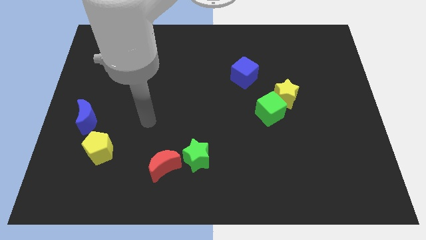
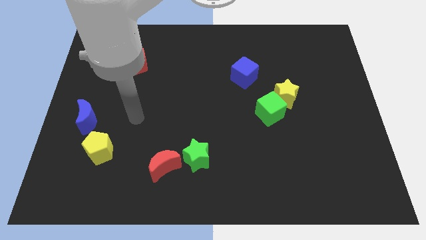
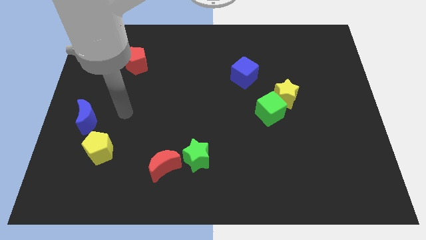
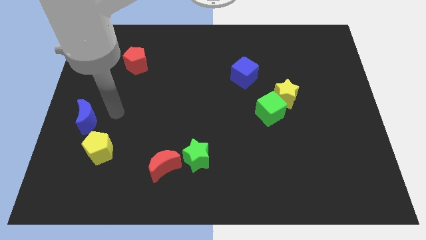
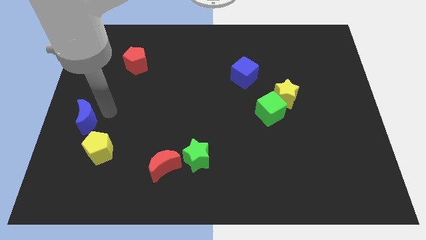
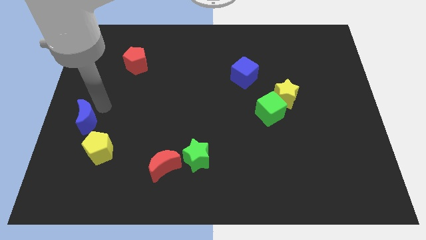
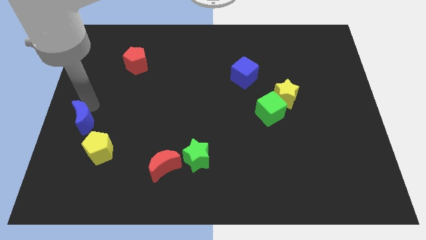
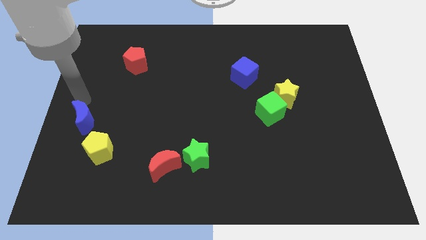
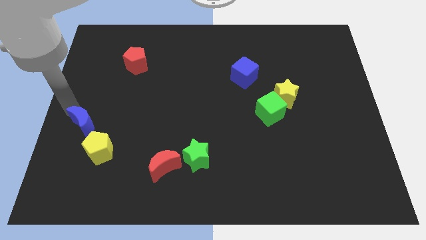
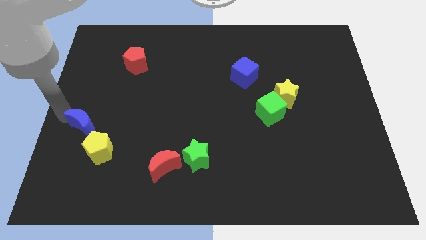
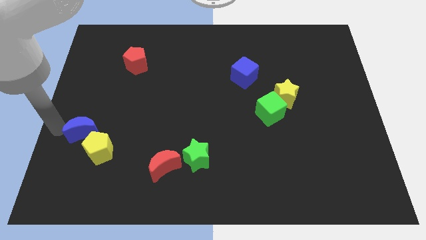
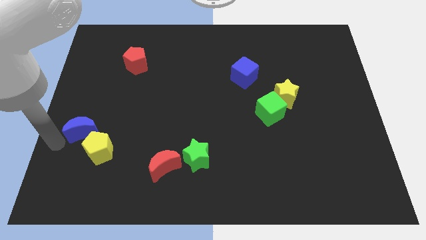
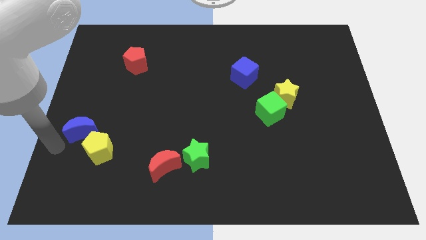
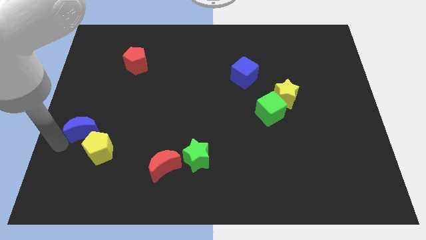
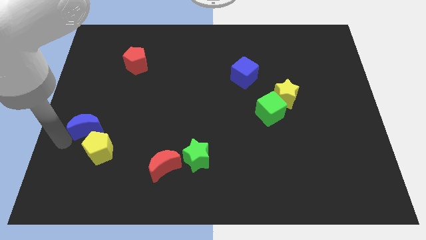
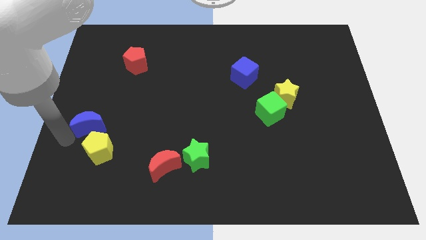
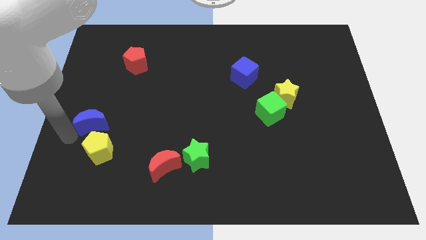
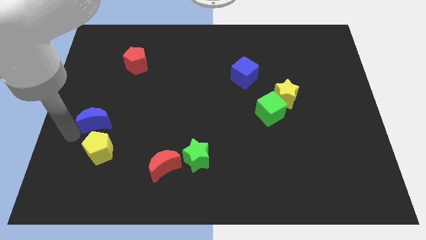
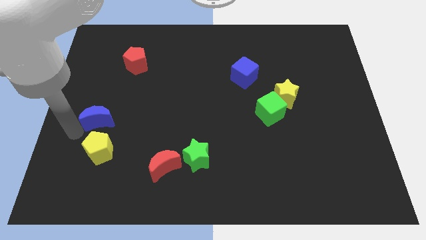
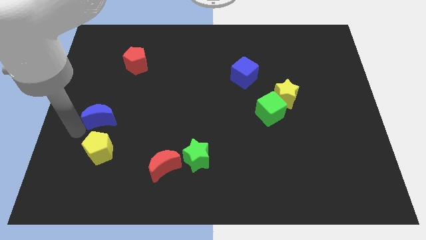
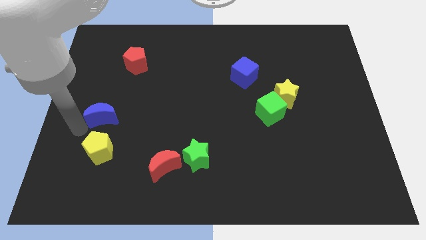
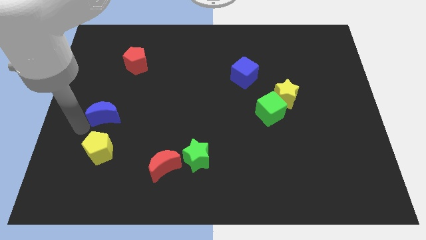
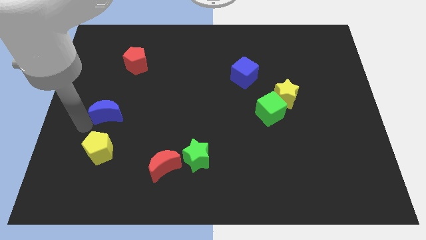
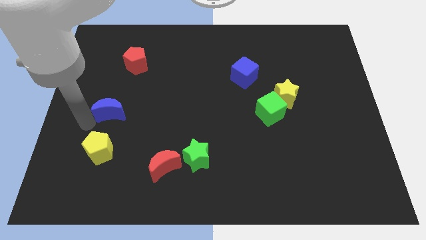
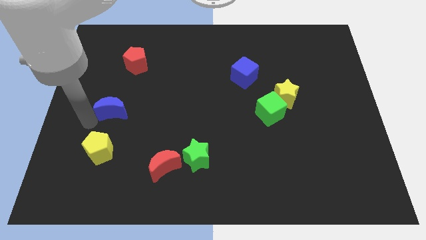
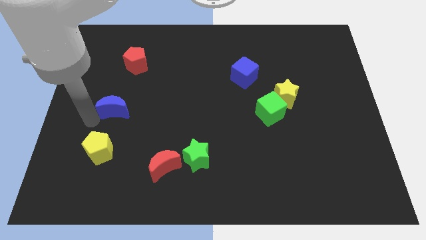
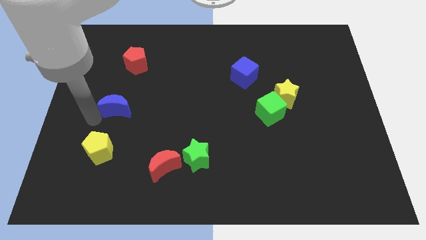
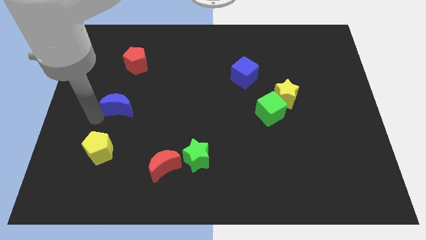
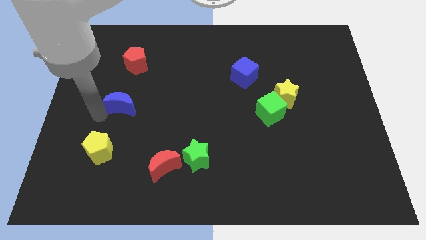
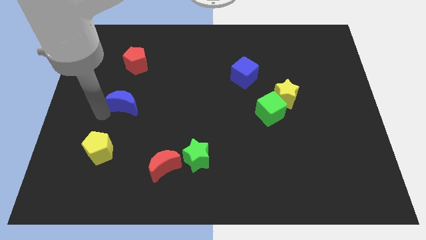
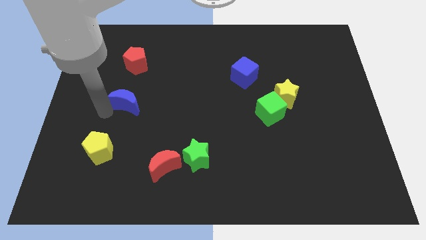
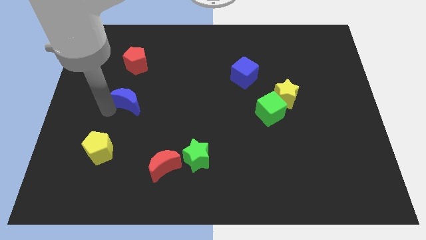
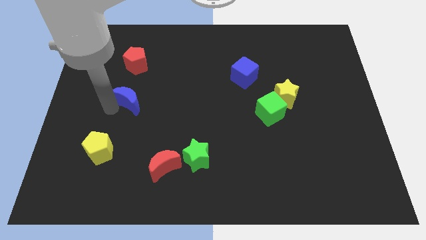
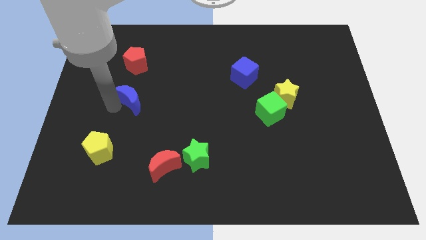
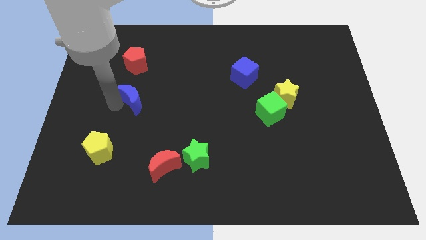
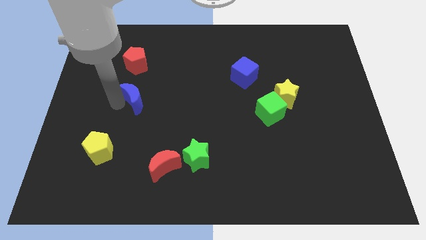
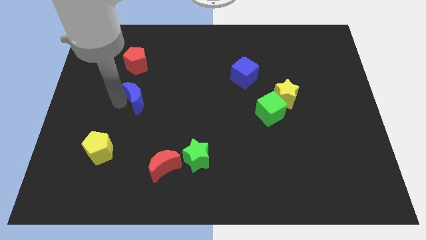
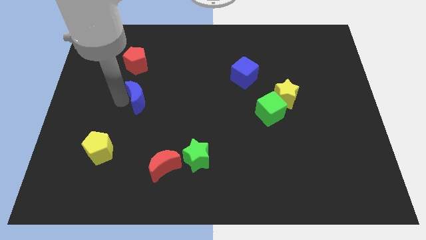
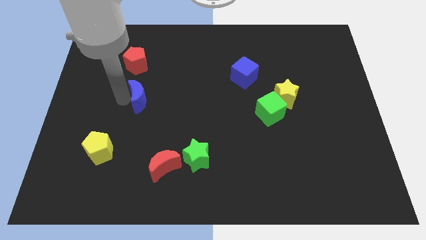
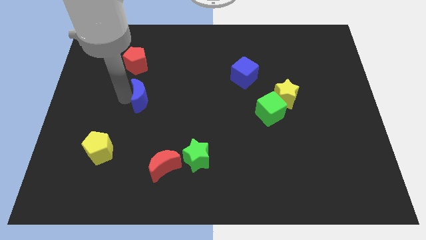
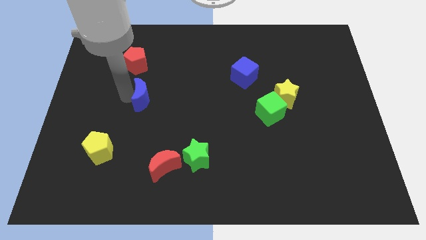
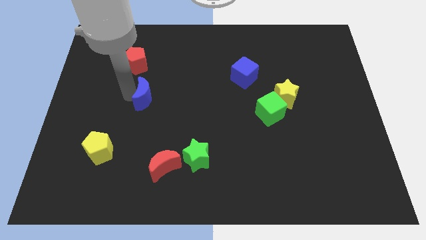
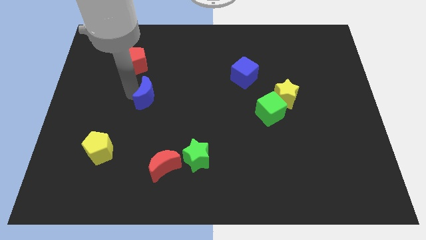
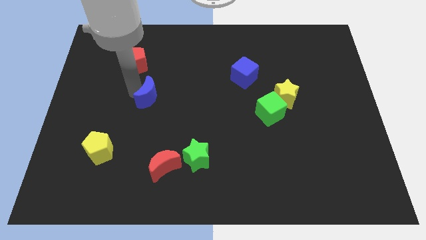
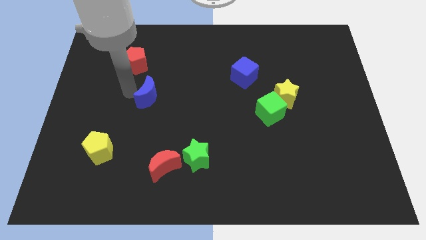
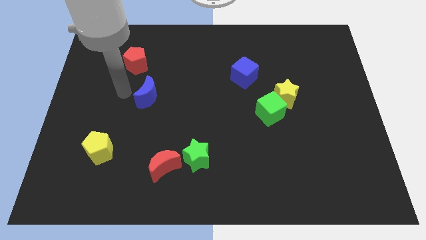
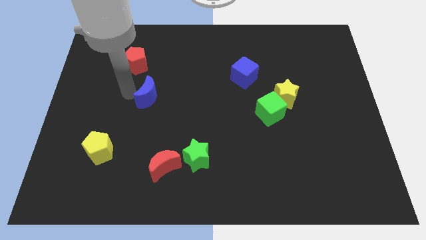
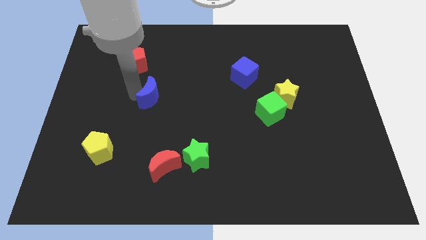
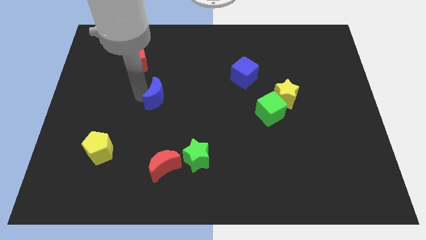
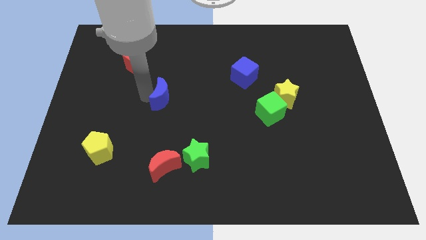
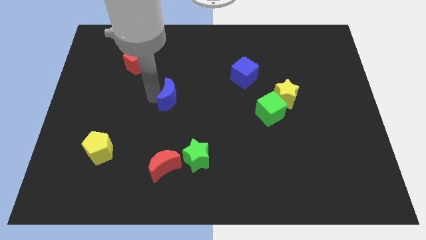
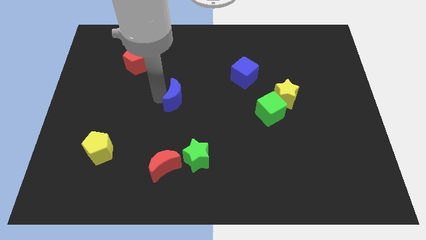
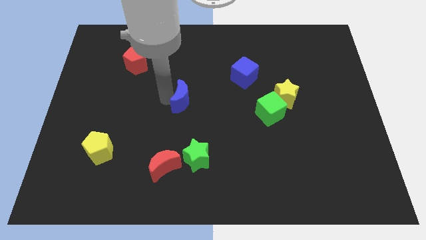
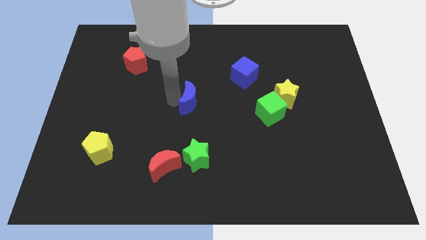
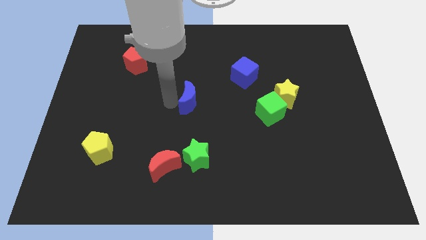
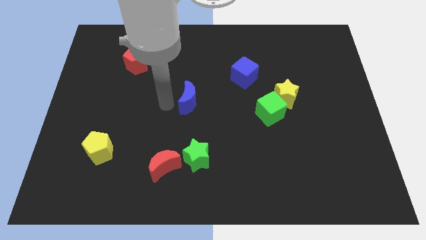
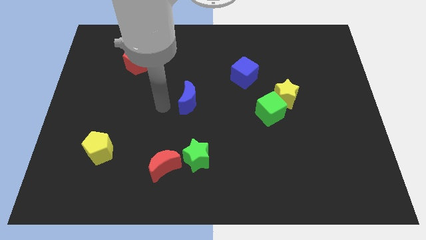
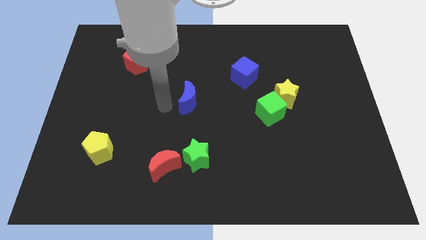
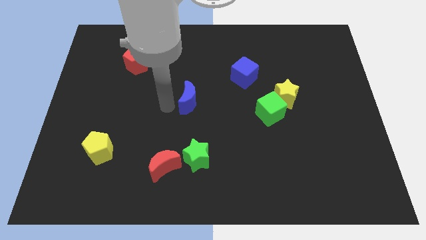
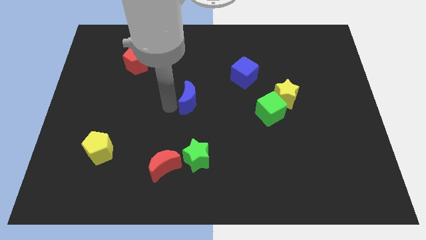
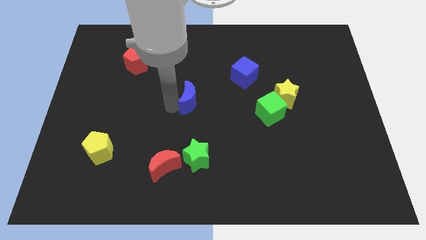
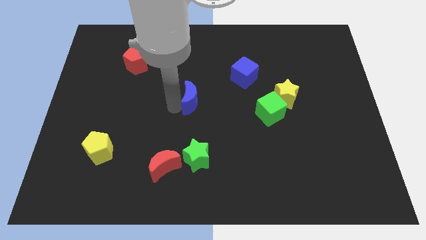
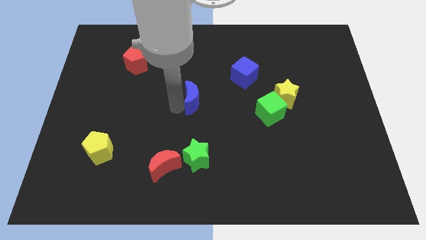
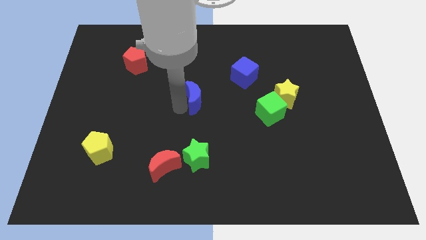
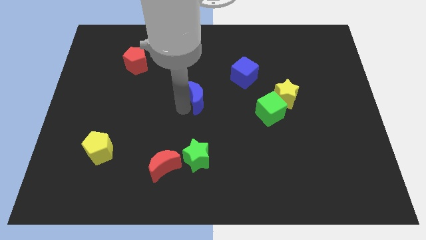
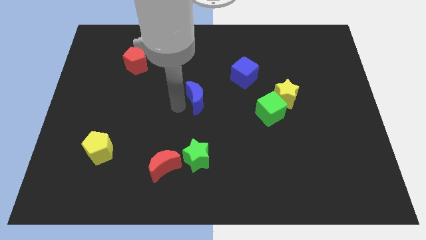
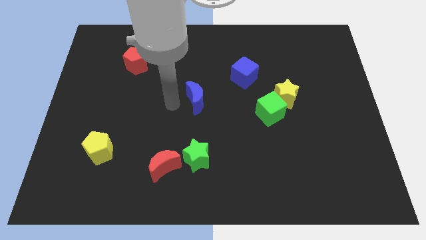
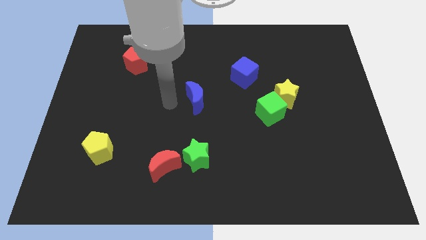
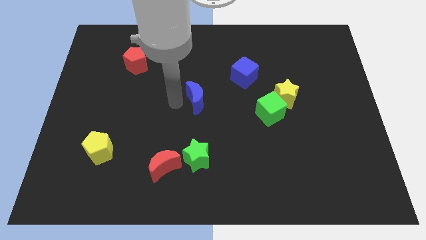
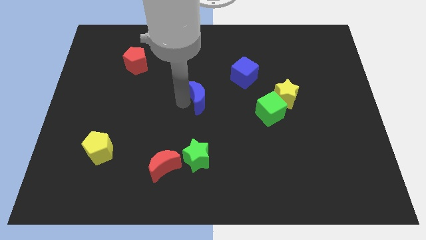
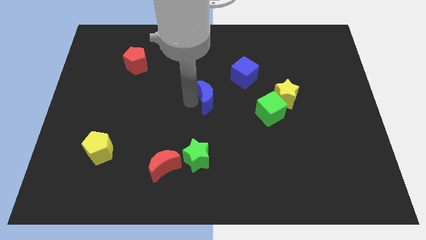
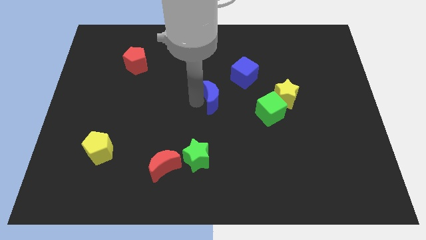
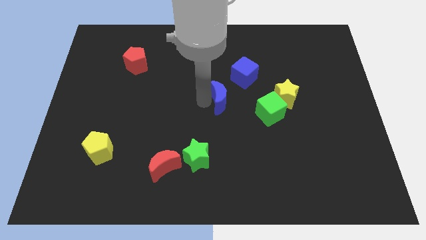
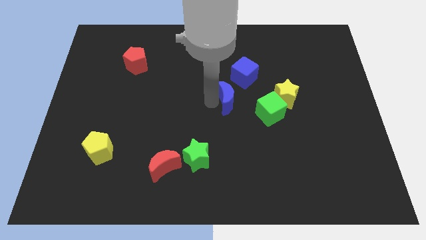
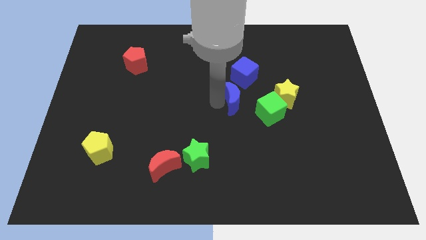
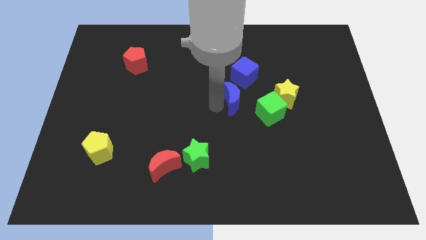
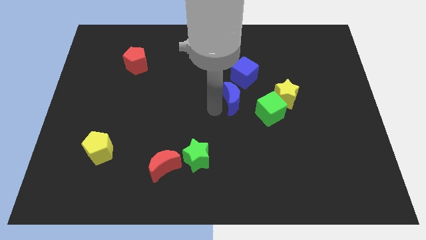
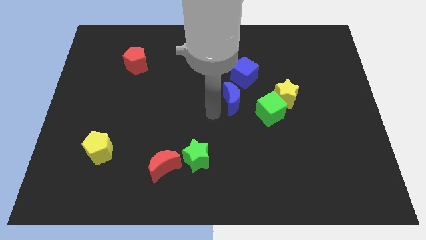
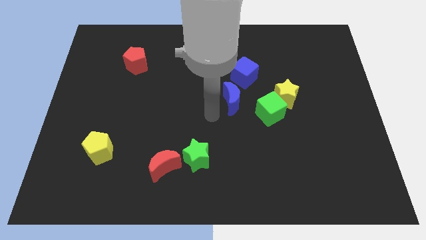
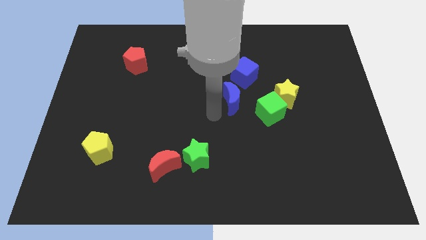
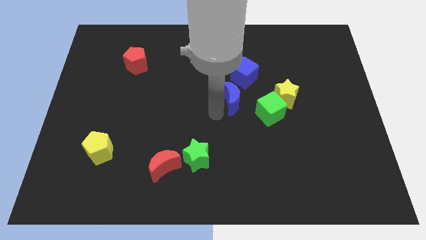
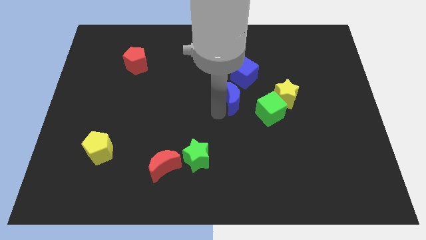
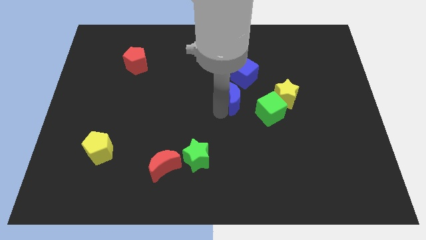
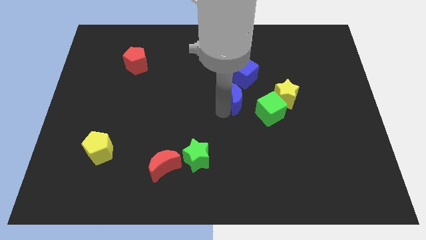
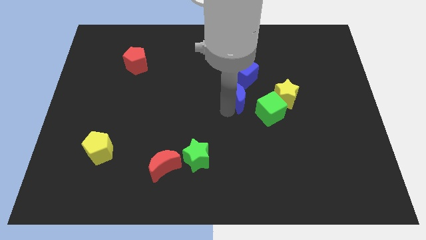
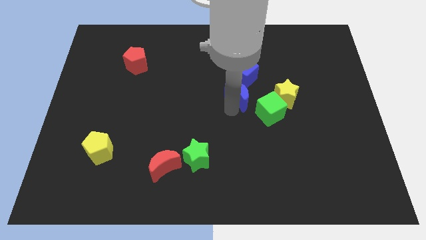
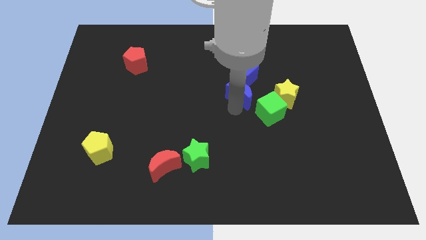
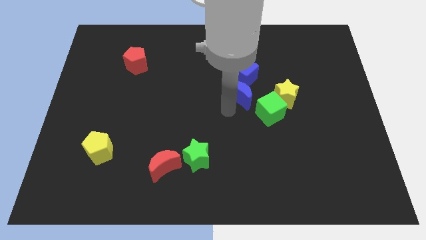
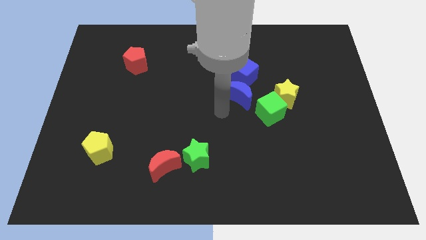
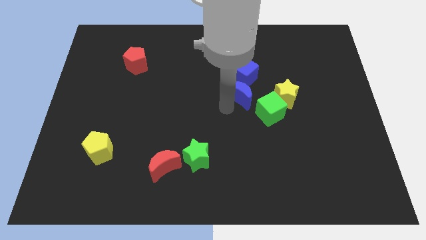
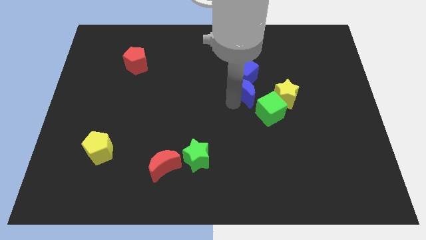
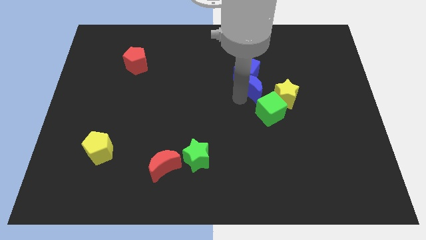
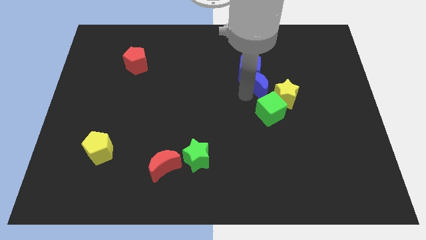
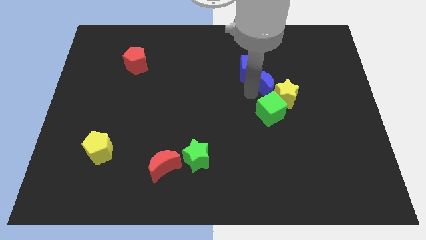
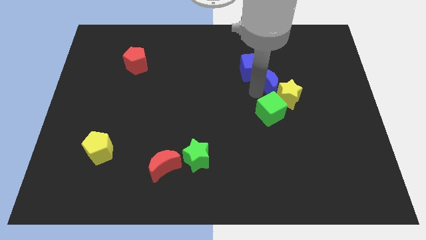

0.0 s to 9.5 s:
push the blue moon to the top side of the yellow star
